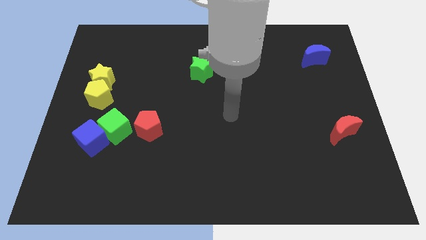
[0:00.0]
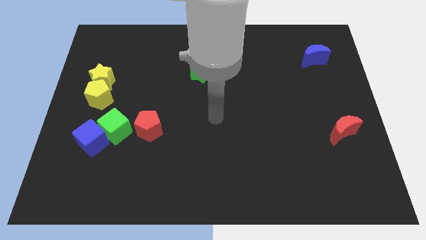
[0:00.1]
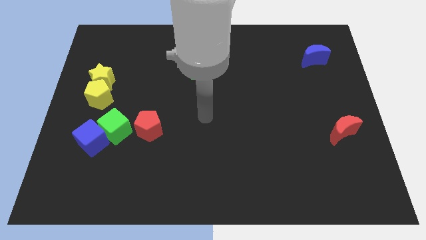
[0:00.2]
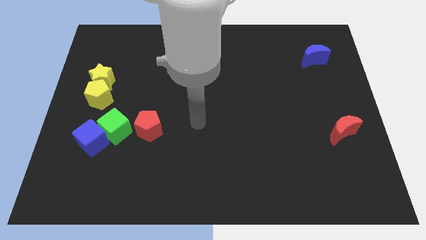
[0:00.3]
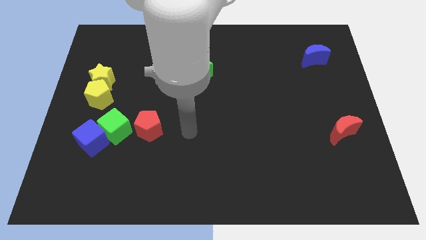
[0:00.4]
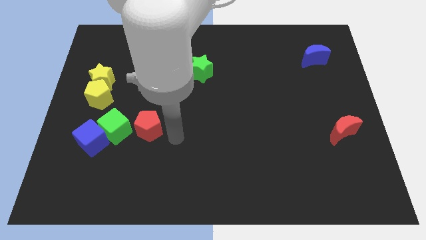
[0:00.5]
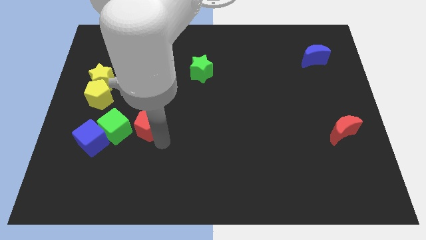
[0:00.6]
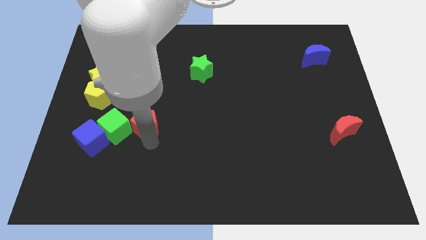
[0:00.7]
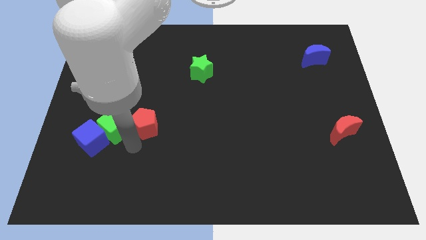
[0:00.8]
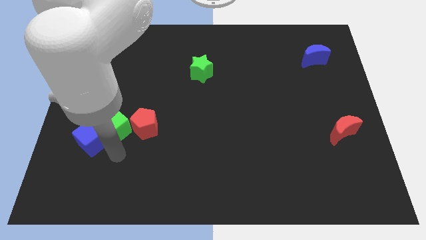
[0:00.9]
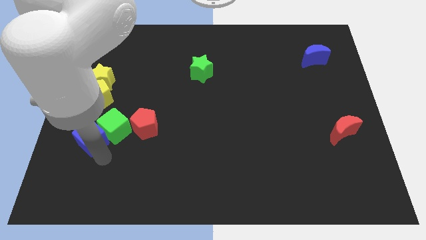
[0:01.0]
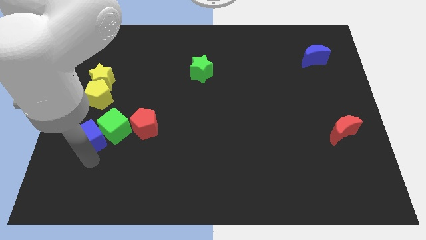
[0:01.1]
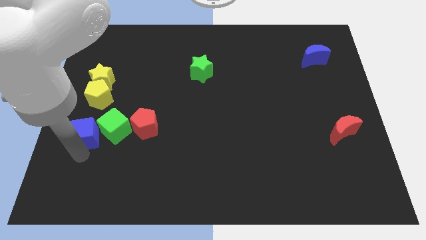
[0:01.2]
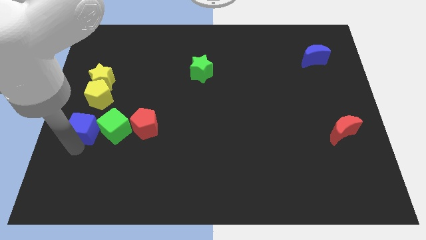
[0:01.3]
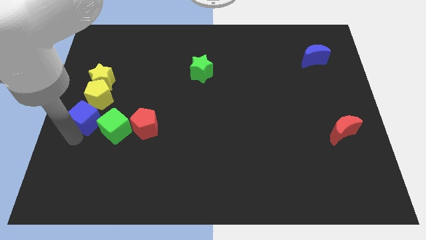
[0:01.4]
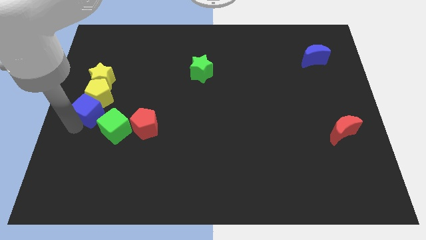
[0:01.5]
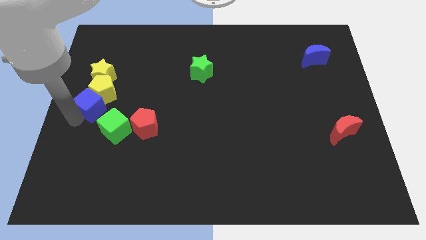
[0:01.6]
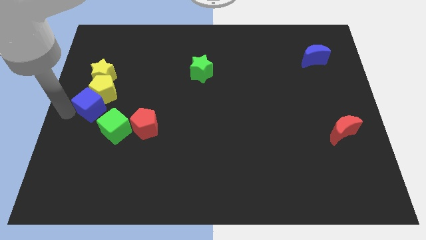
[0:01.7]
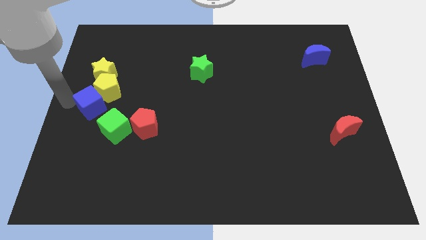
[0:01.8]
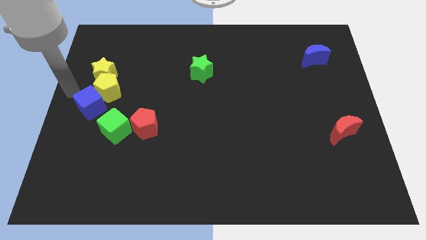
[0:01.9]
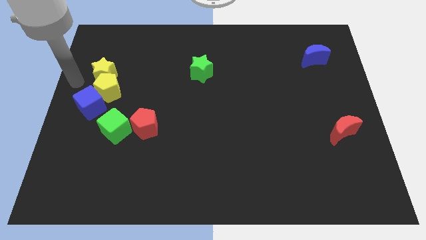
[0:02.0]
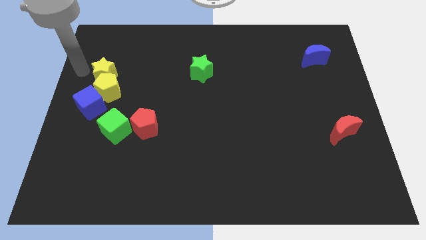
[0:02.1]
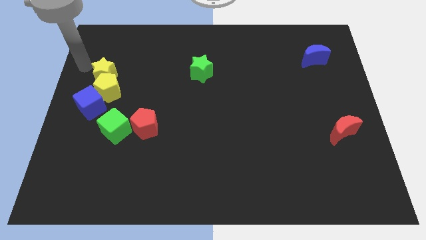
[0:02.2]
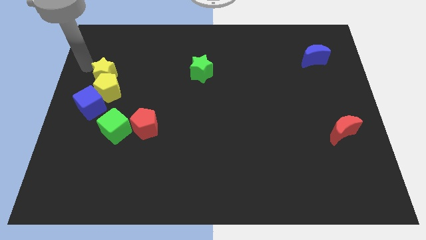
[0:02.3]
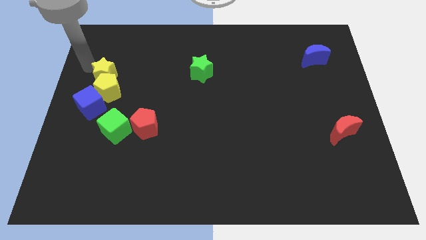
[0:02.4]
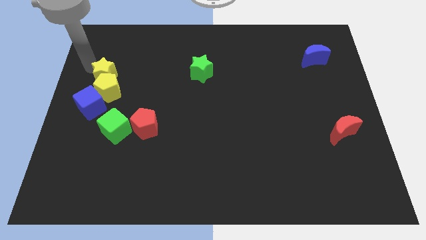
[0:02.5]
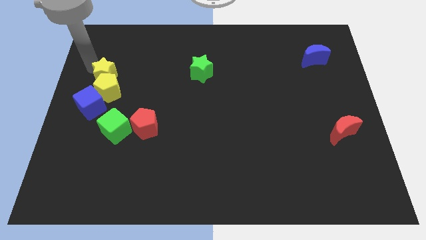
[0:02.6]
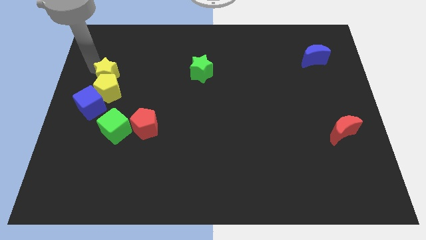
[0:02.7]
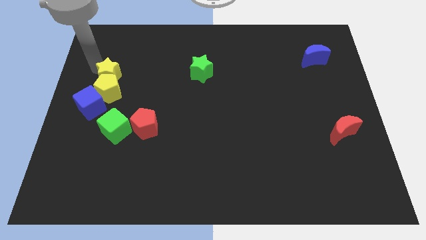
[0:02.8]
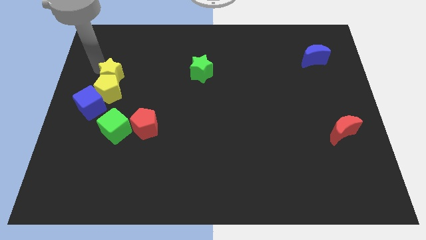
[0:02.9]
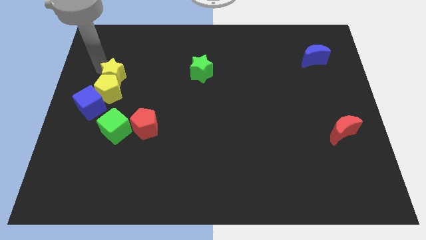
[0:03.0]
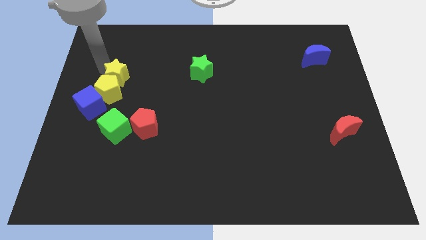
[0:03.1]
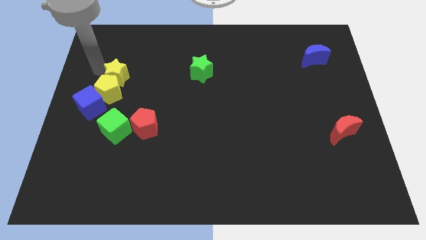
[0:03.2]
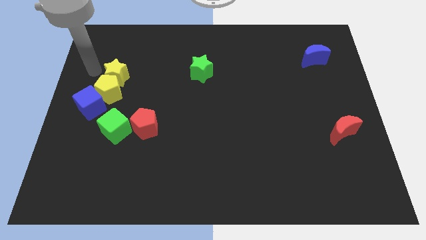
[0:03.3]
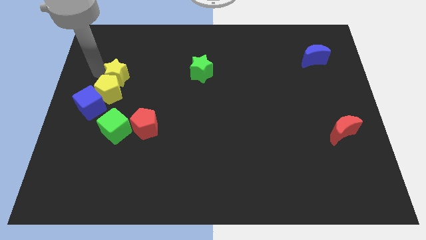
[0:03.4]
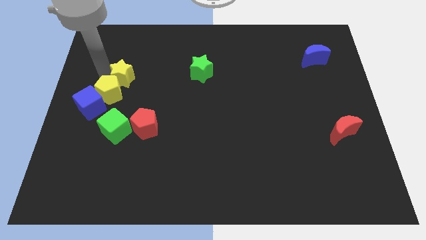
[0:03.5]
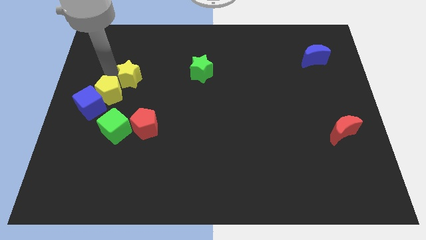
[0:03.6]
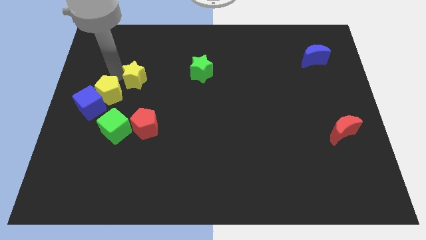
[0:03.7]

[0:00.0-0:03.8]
slide the yellow star somewhat to the right

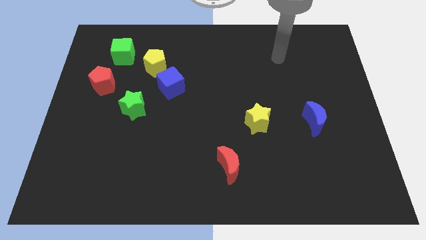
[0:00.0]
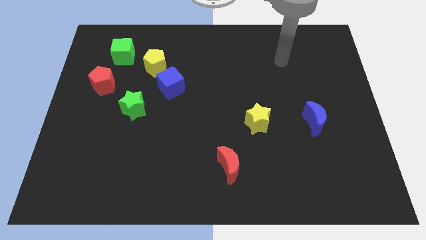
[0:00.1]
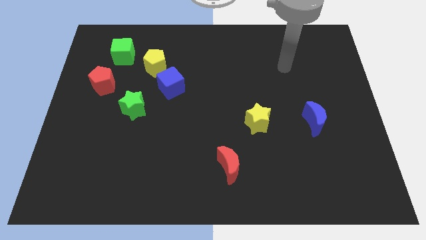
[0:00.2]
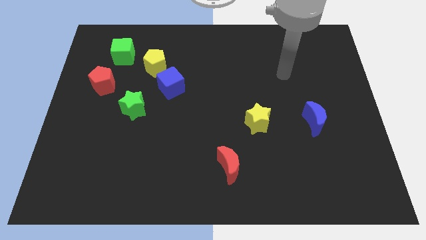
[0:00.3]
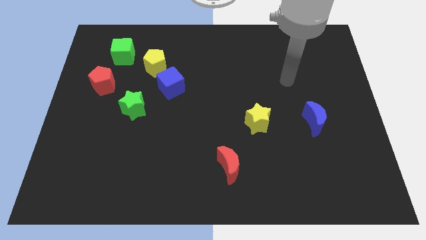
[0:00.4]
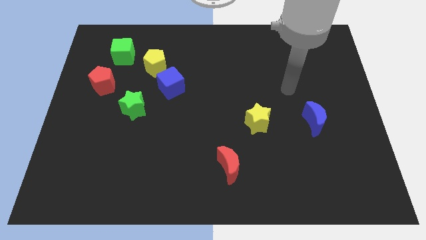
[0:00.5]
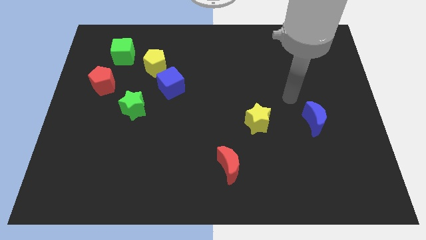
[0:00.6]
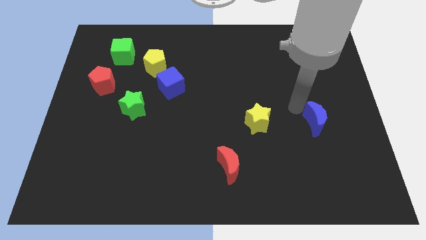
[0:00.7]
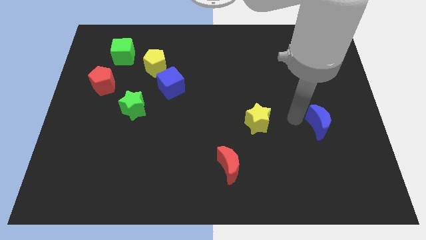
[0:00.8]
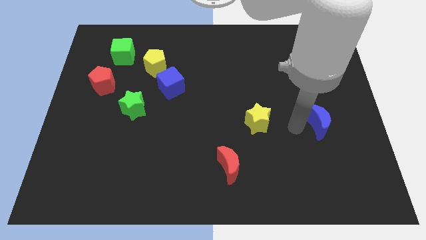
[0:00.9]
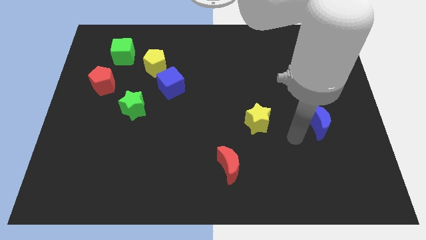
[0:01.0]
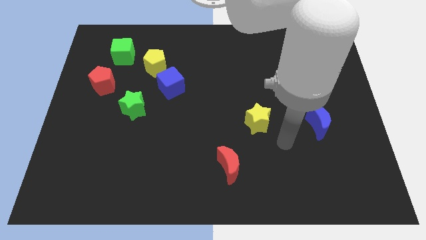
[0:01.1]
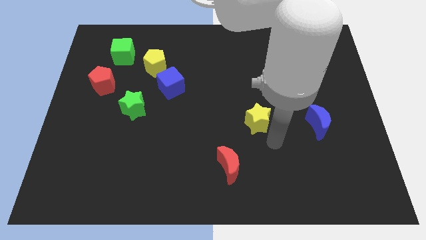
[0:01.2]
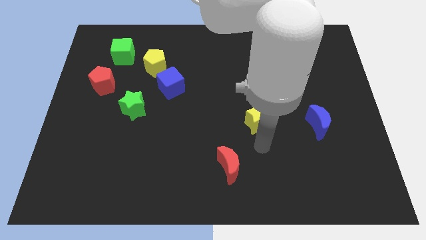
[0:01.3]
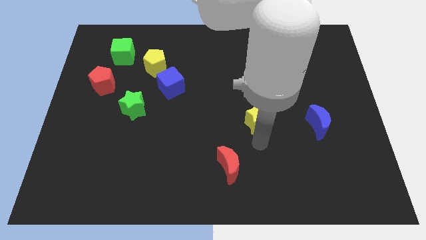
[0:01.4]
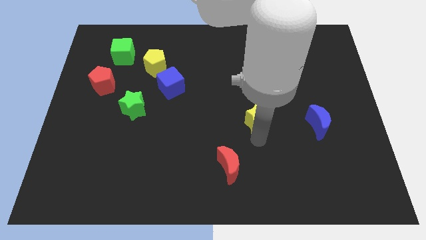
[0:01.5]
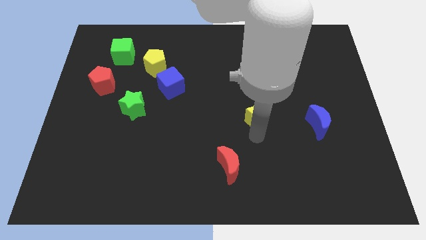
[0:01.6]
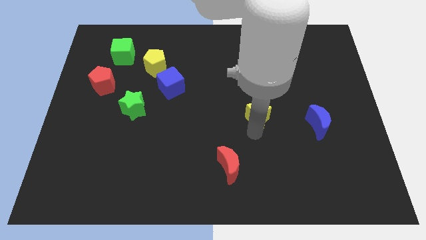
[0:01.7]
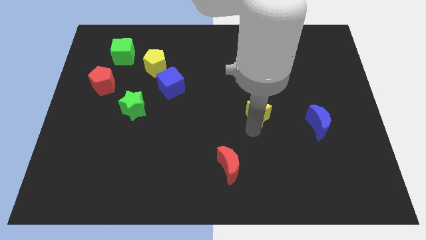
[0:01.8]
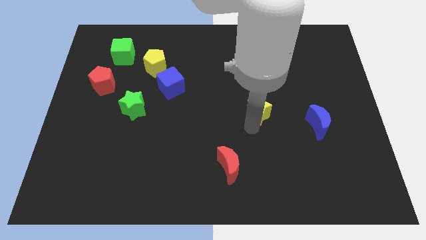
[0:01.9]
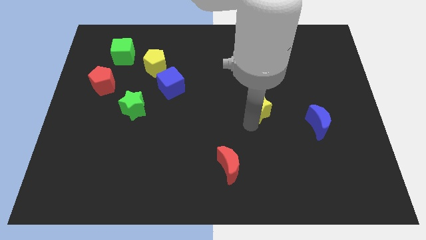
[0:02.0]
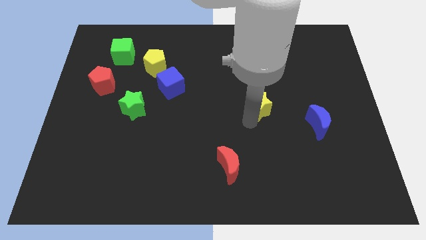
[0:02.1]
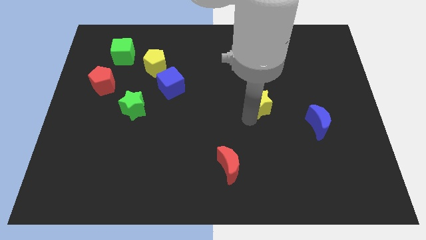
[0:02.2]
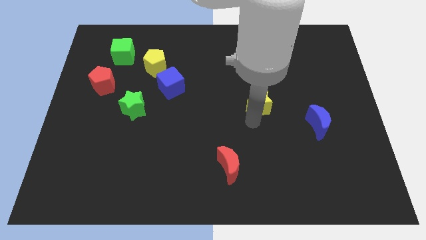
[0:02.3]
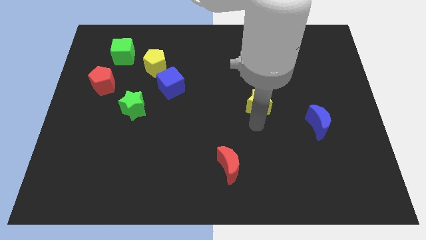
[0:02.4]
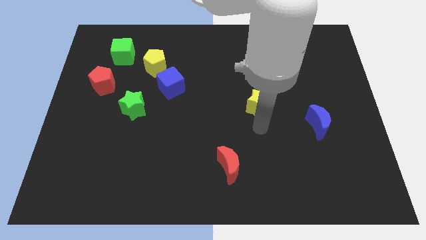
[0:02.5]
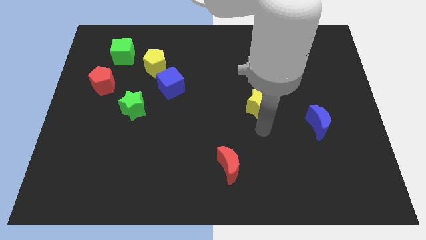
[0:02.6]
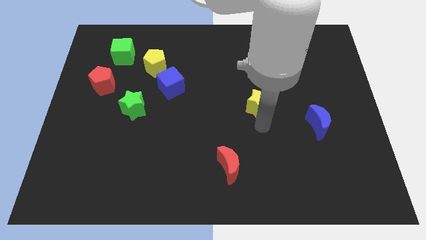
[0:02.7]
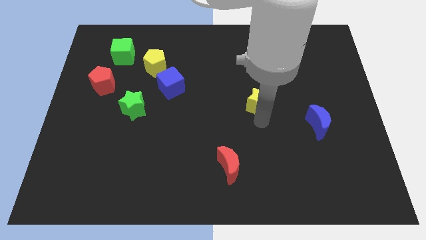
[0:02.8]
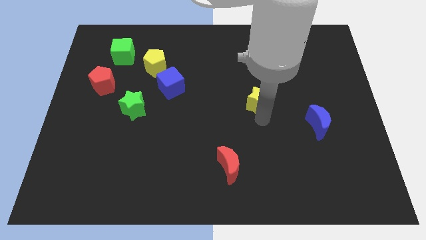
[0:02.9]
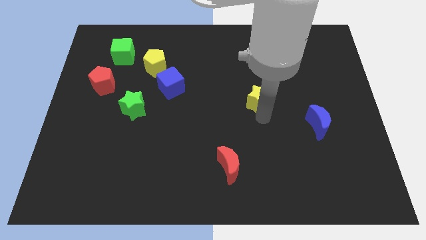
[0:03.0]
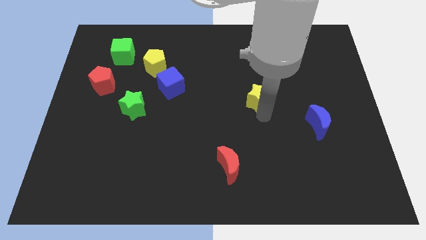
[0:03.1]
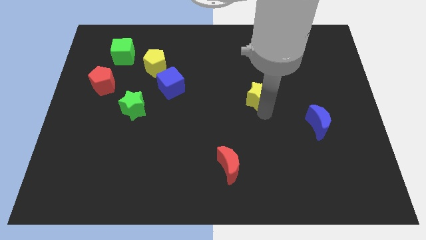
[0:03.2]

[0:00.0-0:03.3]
slide the yellow star a little bit up

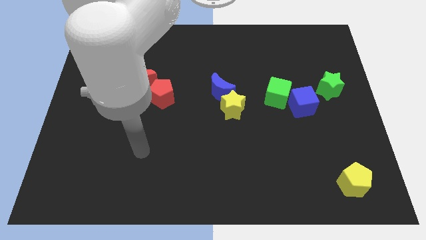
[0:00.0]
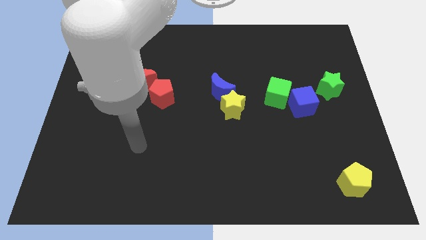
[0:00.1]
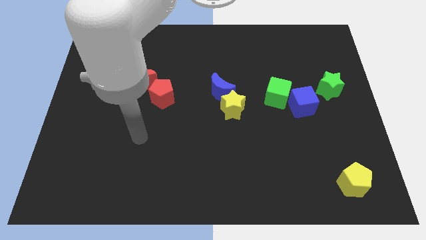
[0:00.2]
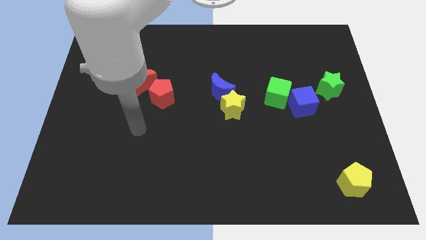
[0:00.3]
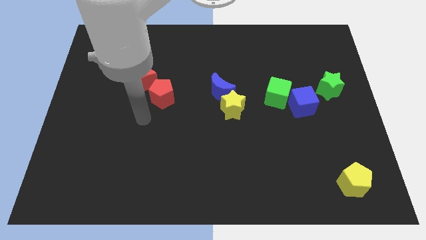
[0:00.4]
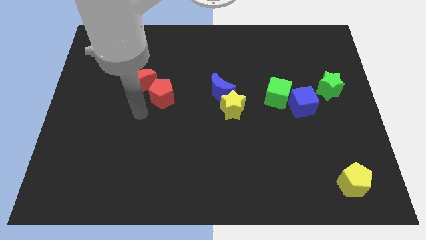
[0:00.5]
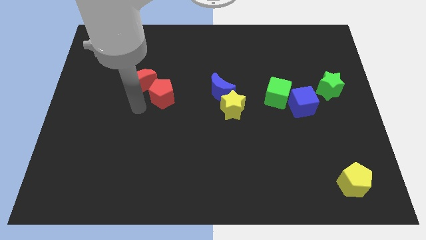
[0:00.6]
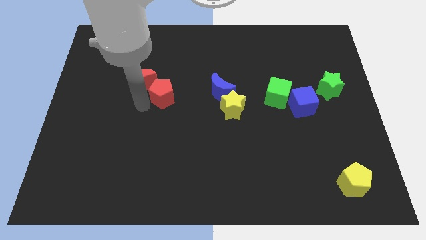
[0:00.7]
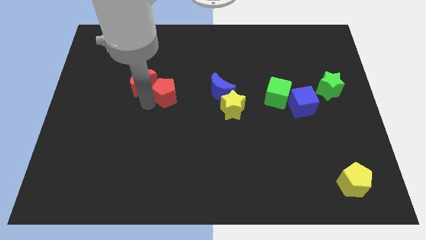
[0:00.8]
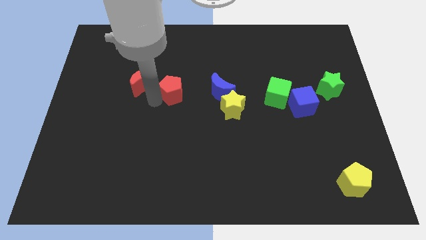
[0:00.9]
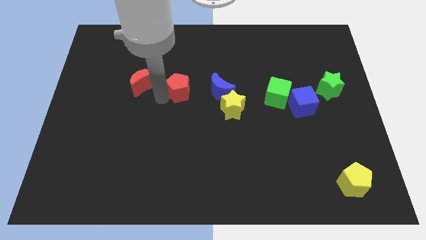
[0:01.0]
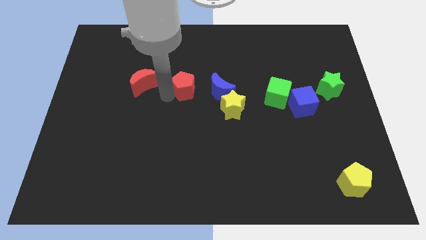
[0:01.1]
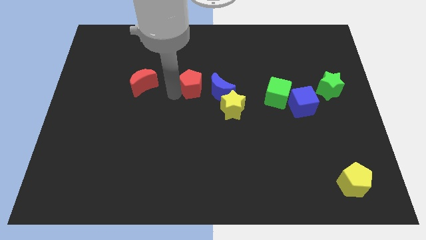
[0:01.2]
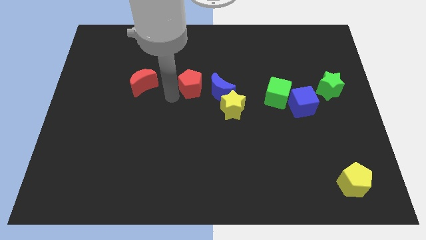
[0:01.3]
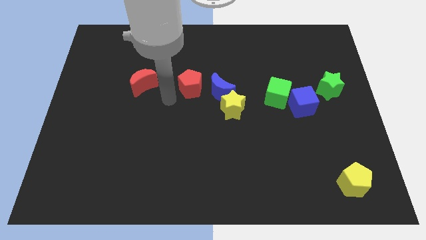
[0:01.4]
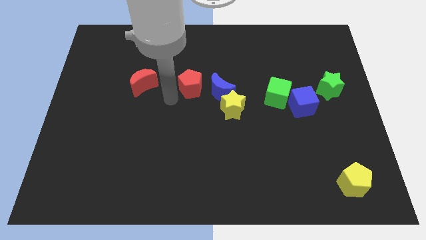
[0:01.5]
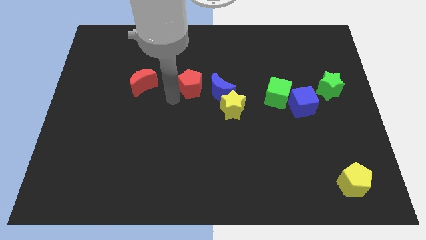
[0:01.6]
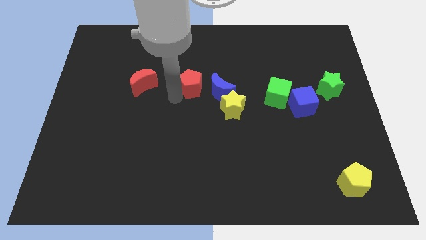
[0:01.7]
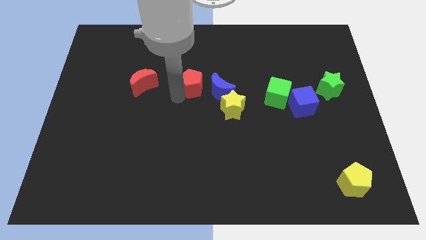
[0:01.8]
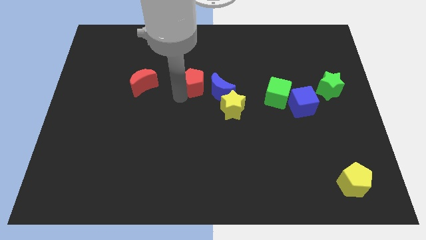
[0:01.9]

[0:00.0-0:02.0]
move the red pentagon slightly right
